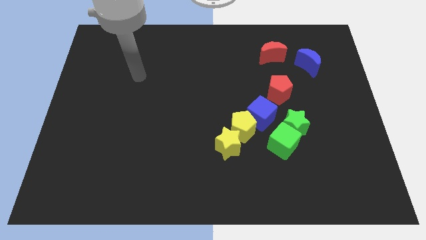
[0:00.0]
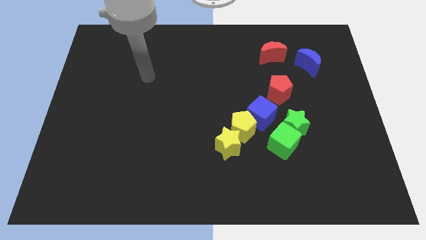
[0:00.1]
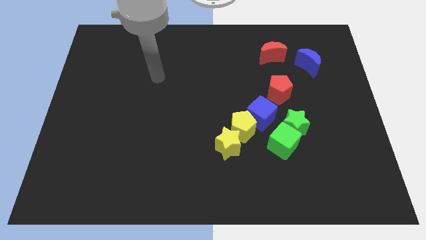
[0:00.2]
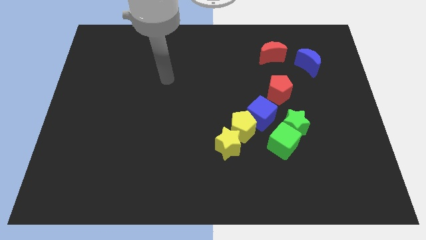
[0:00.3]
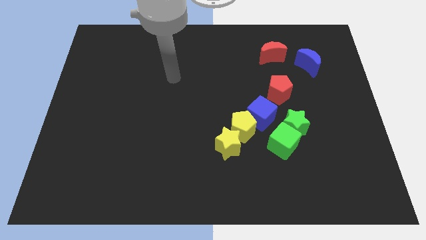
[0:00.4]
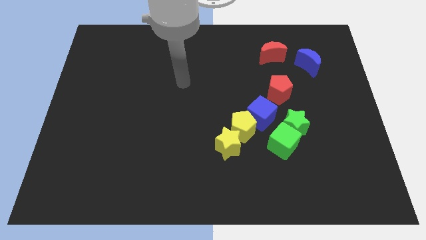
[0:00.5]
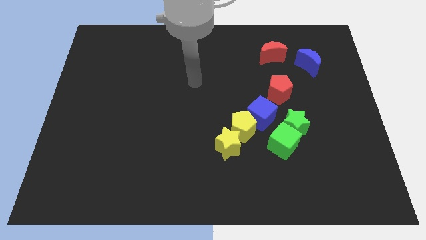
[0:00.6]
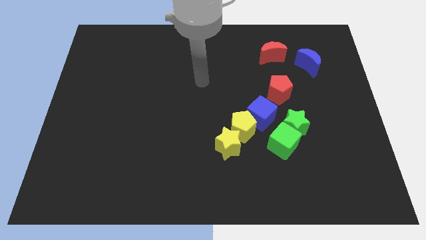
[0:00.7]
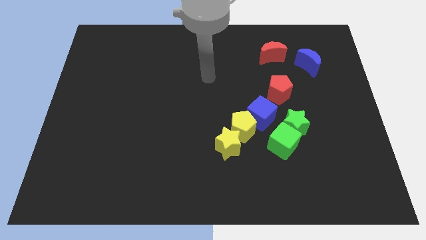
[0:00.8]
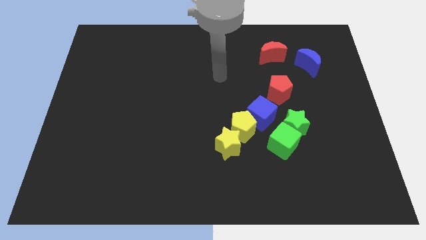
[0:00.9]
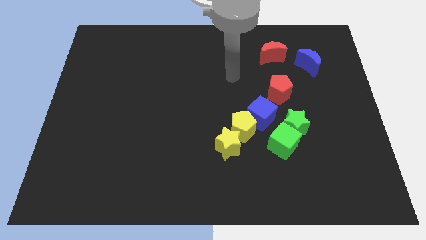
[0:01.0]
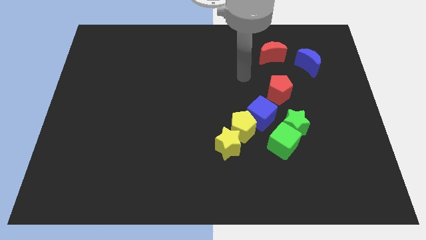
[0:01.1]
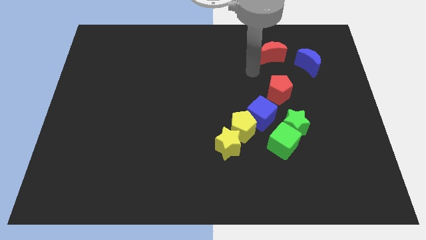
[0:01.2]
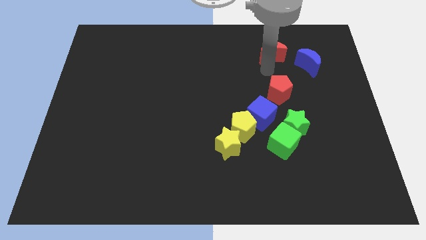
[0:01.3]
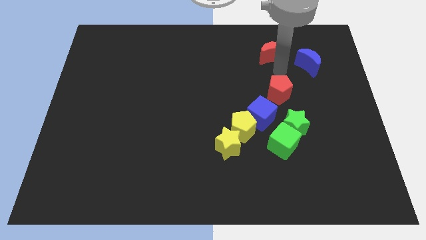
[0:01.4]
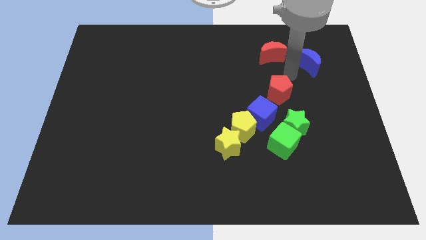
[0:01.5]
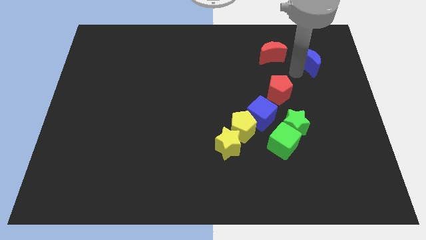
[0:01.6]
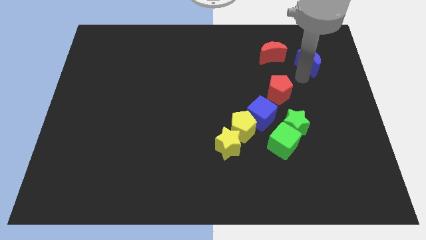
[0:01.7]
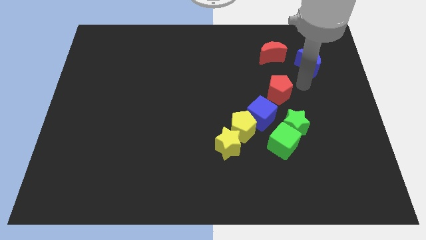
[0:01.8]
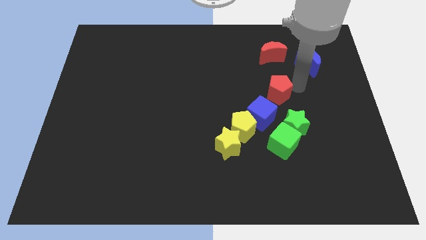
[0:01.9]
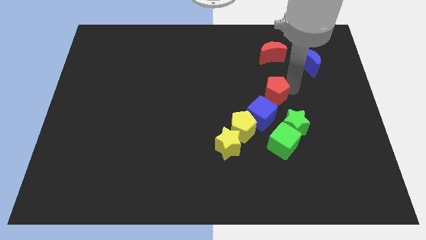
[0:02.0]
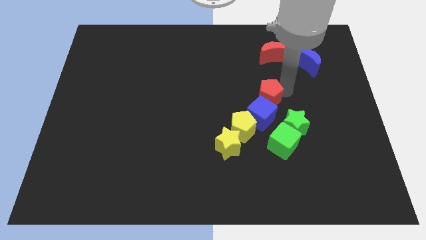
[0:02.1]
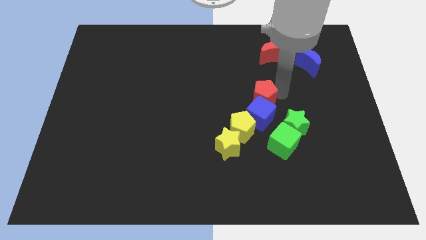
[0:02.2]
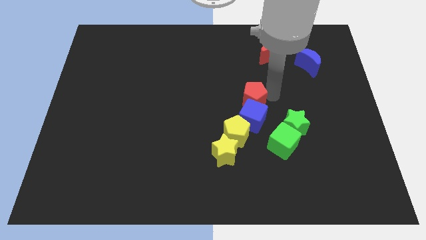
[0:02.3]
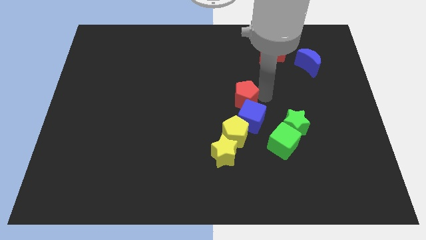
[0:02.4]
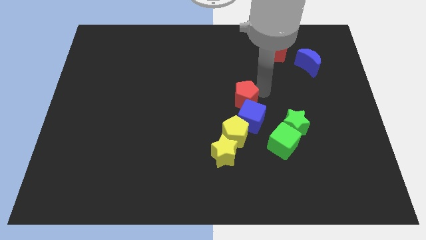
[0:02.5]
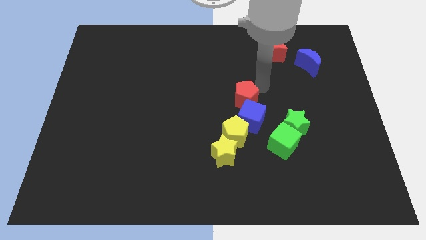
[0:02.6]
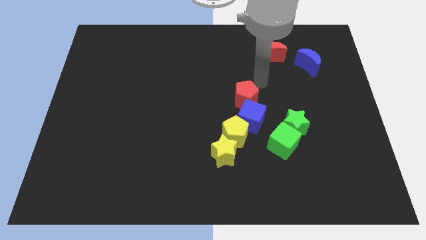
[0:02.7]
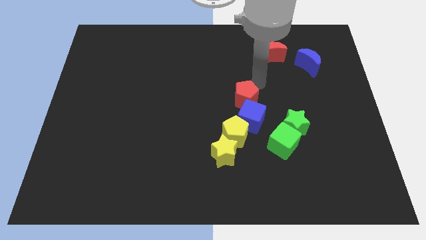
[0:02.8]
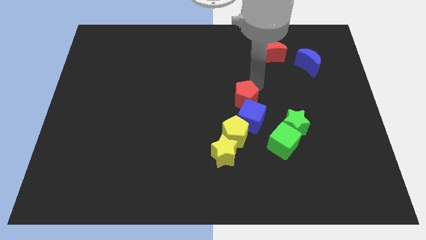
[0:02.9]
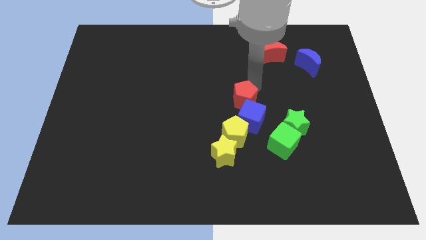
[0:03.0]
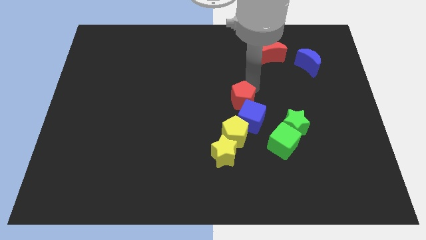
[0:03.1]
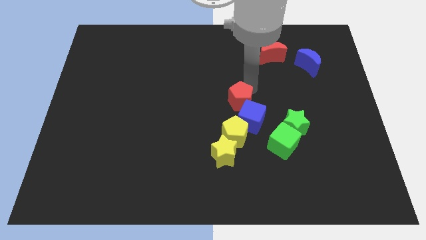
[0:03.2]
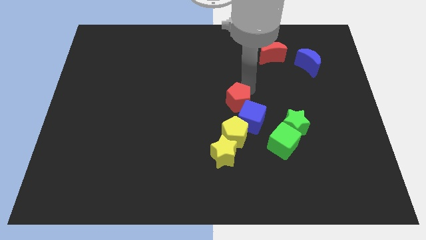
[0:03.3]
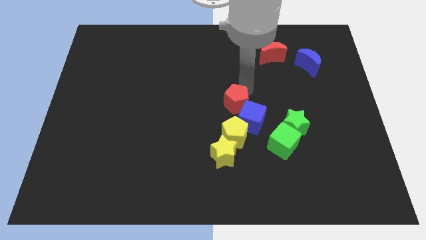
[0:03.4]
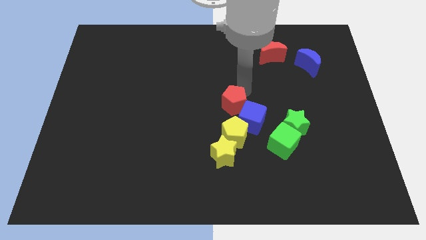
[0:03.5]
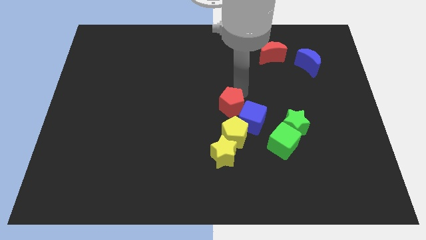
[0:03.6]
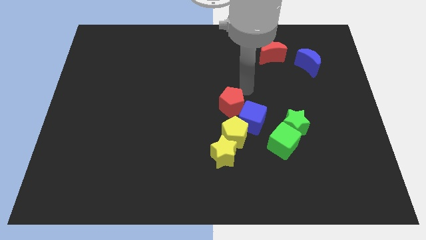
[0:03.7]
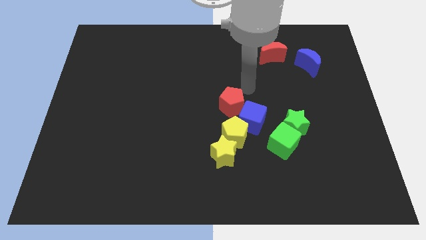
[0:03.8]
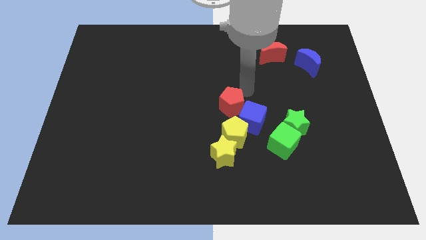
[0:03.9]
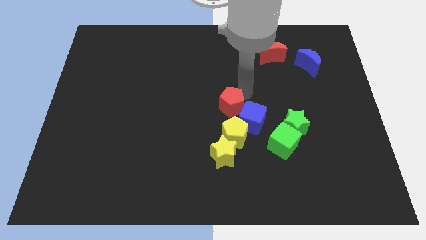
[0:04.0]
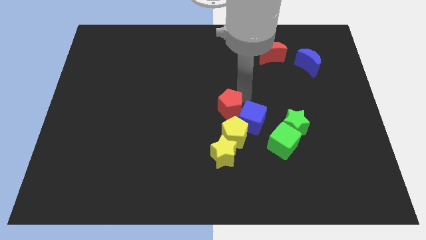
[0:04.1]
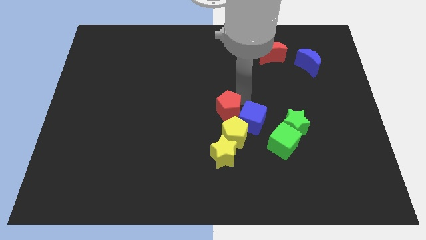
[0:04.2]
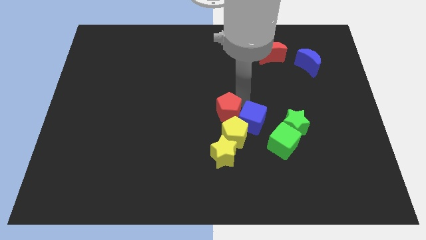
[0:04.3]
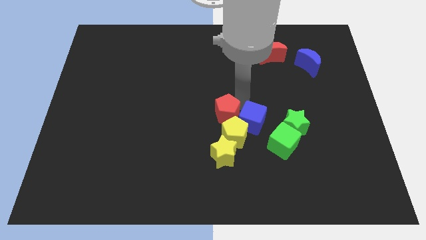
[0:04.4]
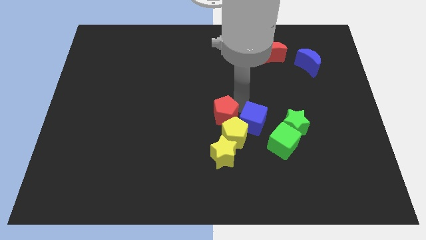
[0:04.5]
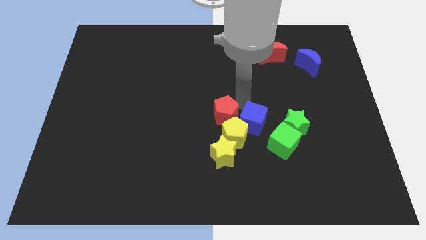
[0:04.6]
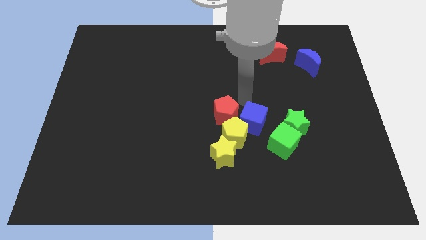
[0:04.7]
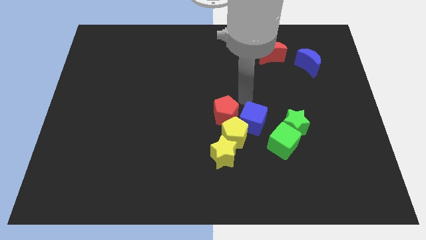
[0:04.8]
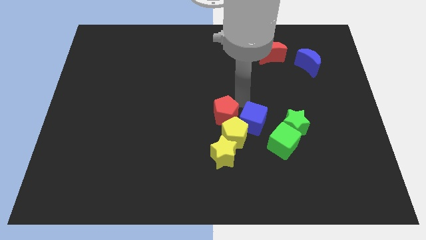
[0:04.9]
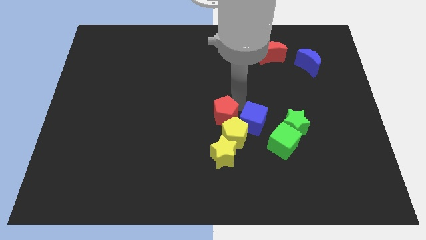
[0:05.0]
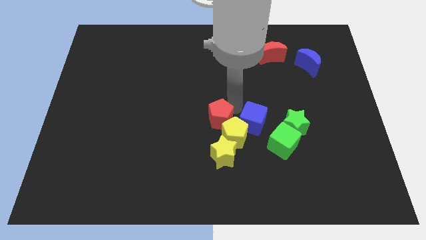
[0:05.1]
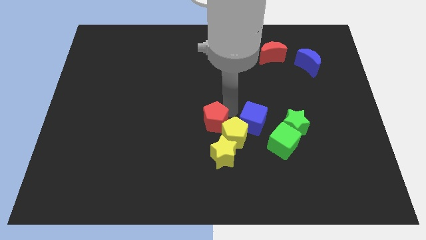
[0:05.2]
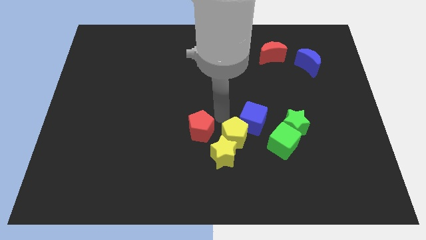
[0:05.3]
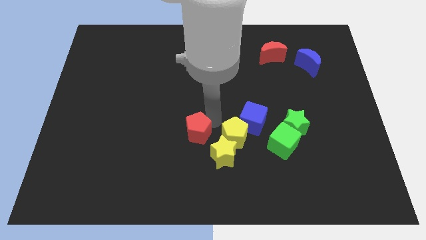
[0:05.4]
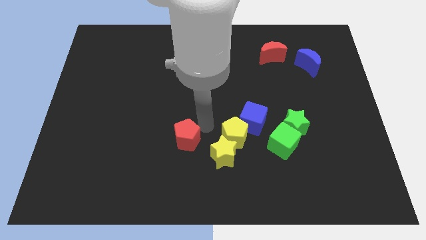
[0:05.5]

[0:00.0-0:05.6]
slide the red pentagon to the left side of the yellow star
